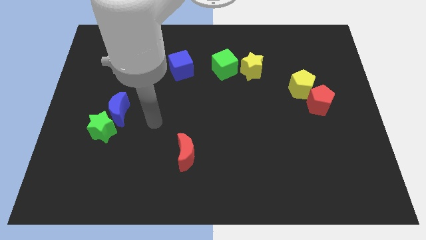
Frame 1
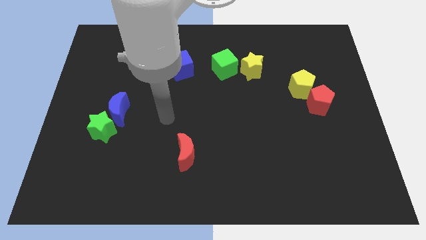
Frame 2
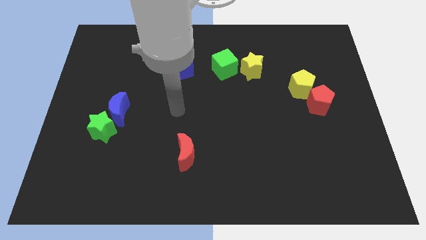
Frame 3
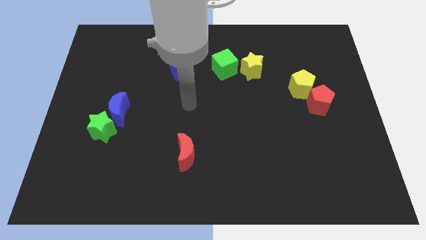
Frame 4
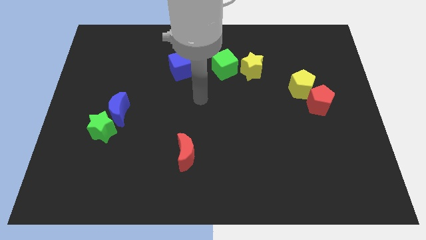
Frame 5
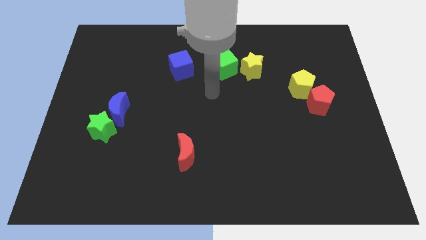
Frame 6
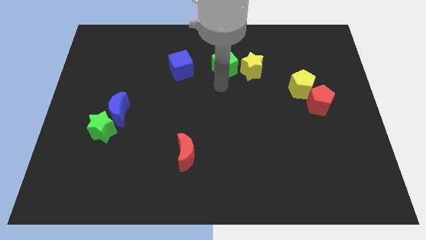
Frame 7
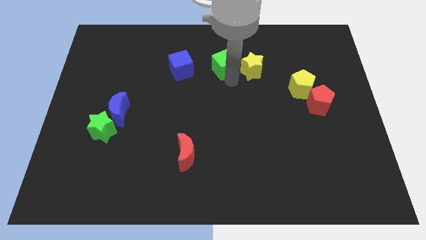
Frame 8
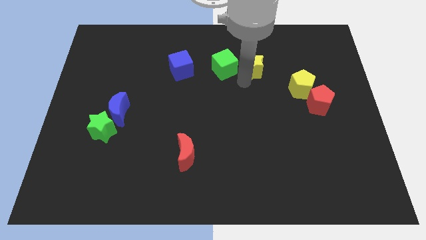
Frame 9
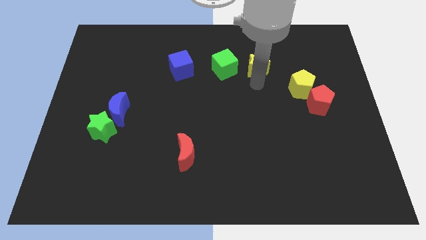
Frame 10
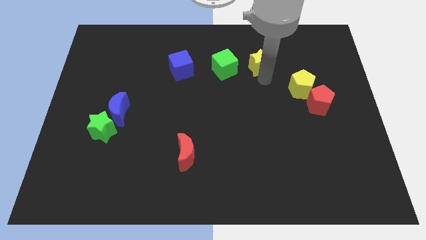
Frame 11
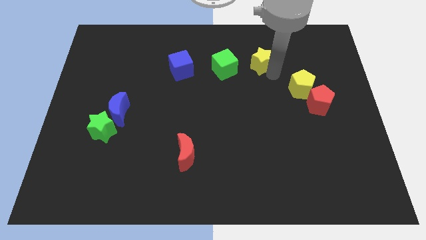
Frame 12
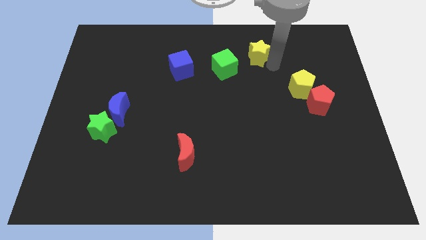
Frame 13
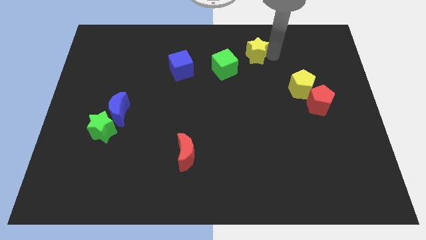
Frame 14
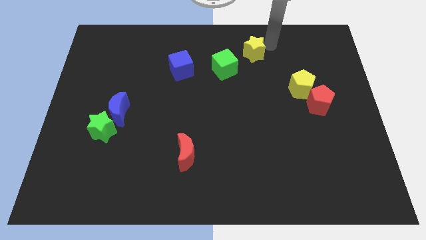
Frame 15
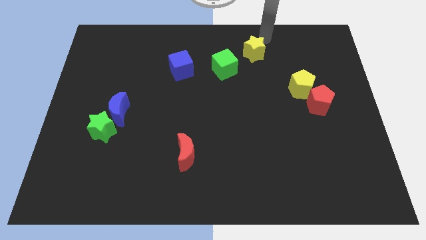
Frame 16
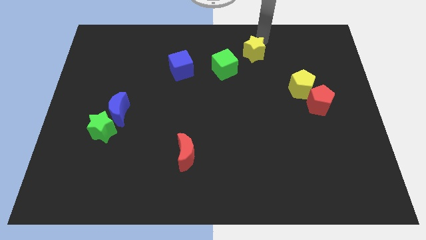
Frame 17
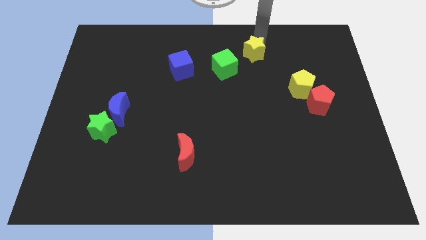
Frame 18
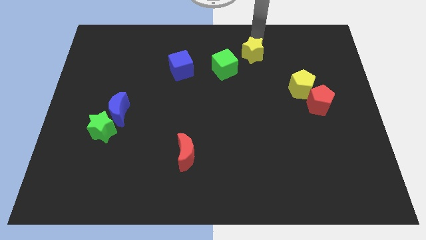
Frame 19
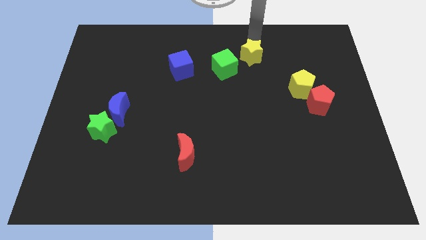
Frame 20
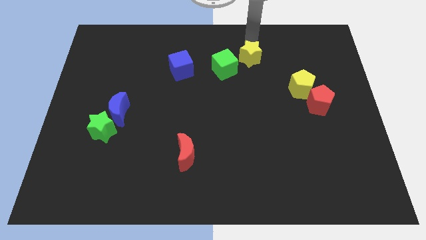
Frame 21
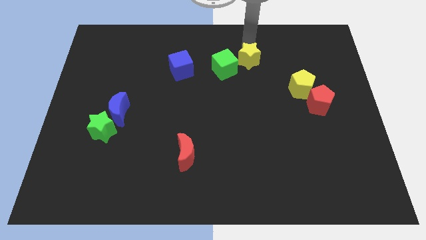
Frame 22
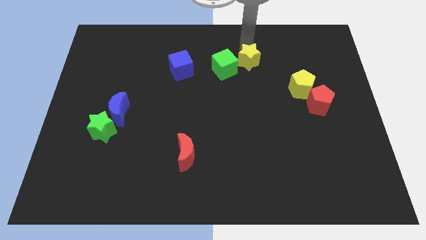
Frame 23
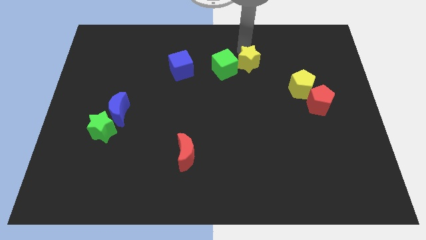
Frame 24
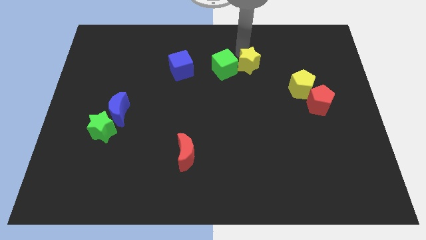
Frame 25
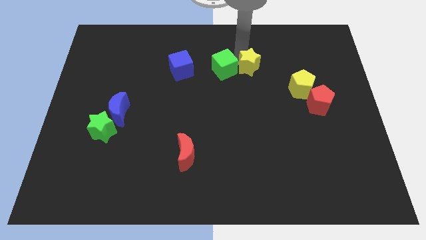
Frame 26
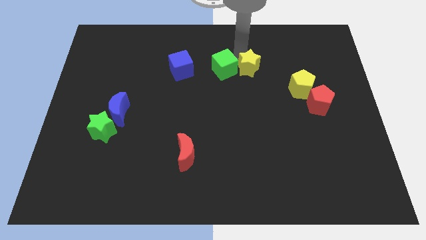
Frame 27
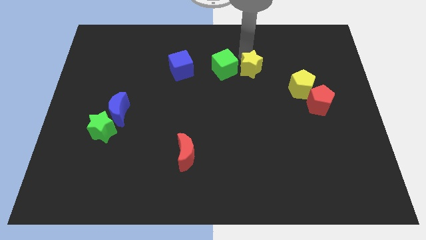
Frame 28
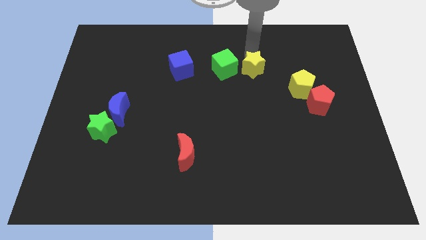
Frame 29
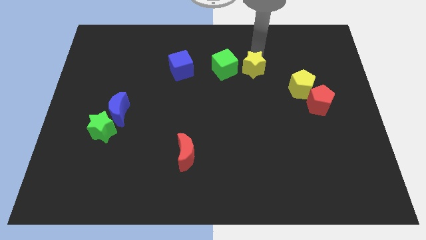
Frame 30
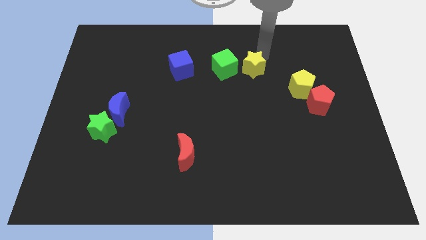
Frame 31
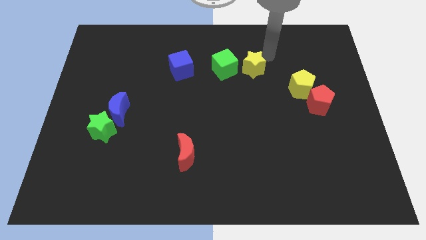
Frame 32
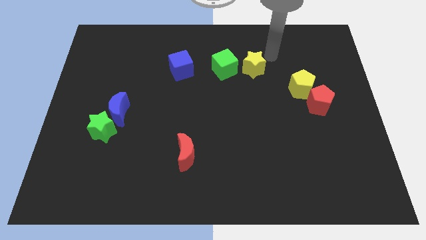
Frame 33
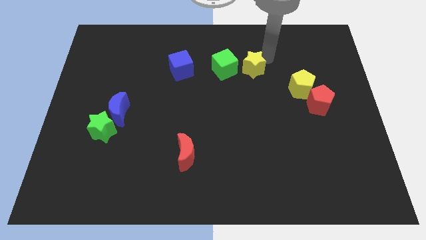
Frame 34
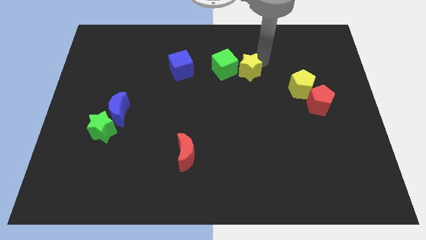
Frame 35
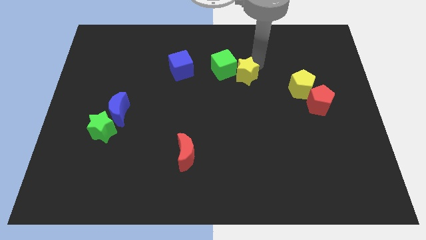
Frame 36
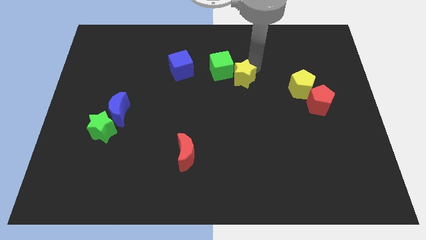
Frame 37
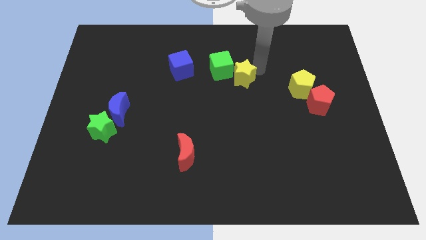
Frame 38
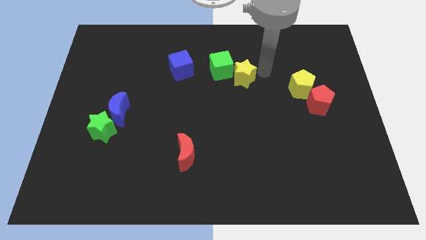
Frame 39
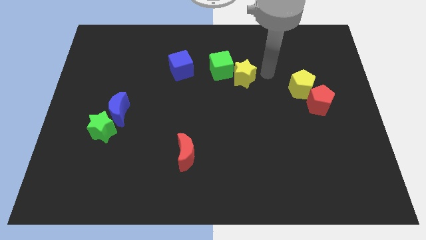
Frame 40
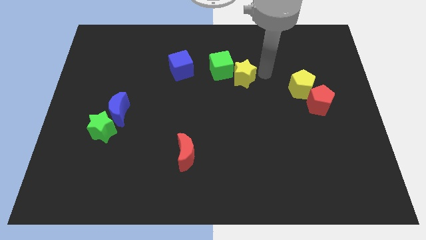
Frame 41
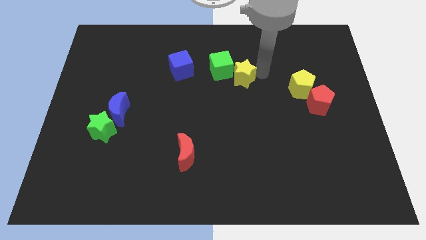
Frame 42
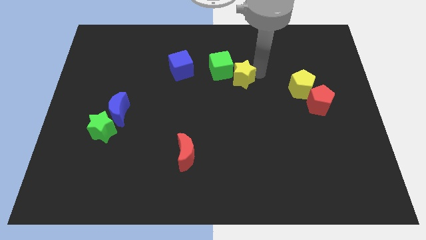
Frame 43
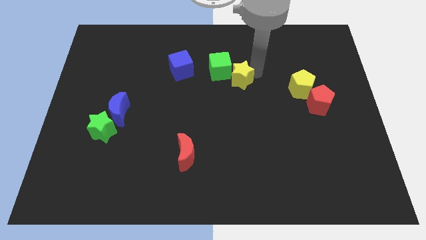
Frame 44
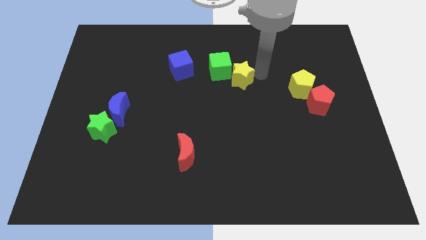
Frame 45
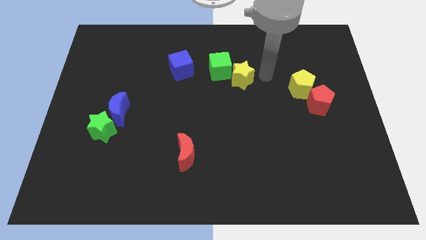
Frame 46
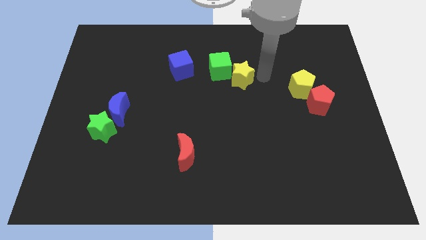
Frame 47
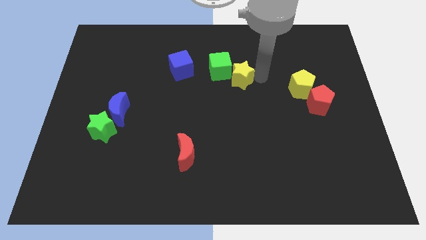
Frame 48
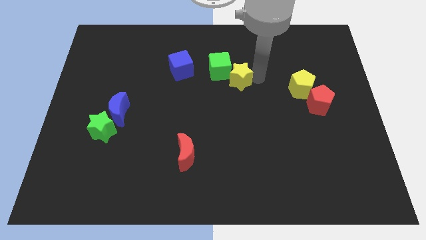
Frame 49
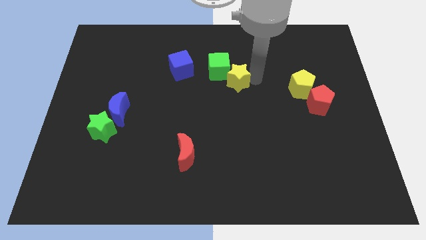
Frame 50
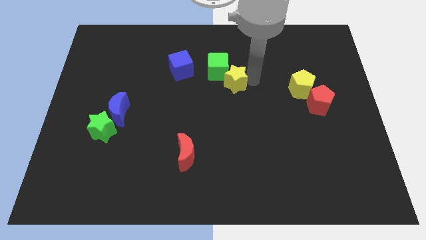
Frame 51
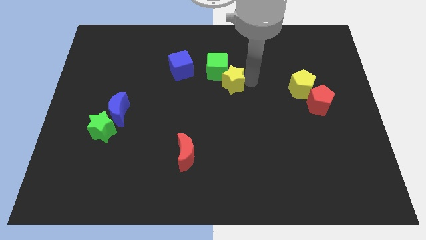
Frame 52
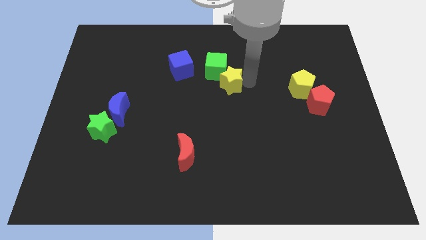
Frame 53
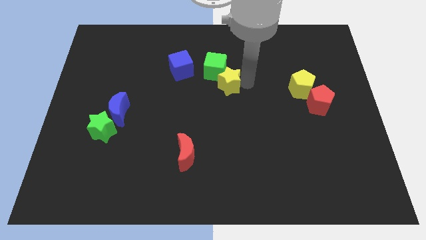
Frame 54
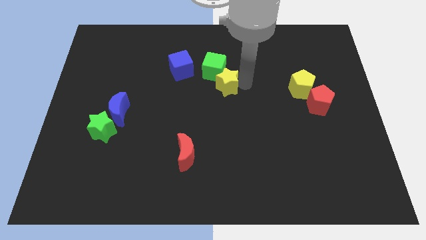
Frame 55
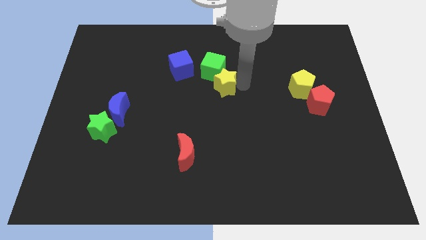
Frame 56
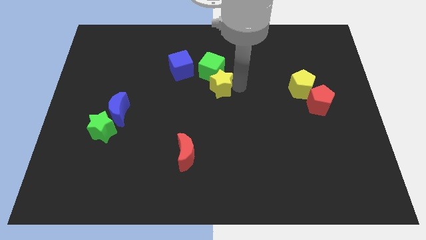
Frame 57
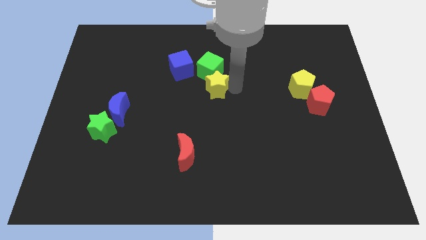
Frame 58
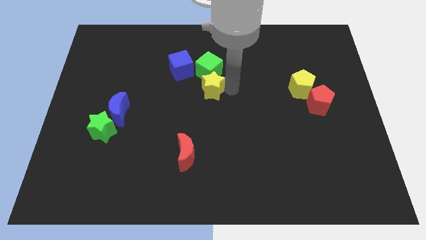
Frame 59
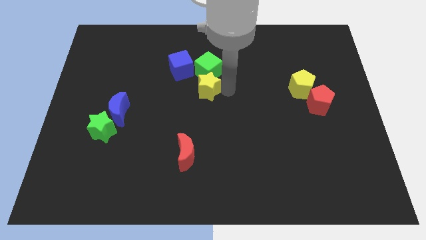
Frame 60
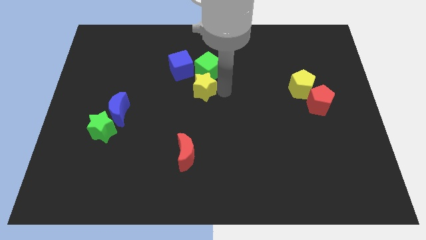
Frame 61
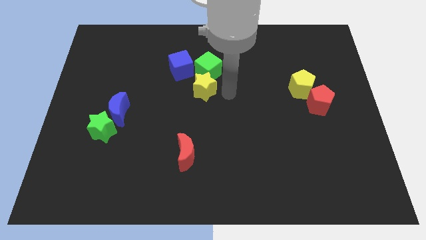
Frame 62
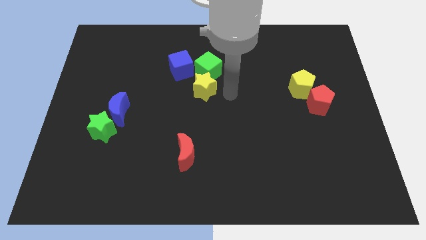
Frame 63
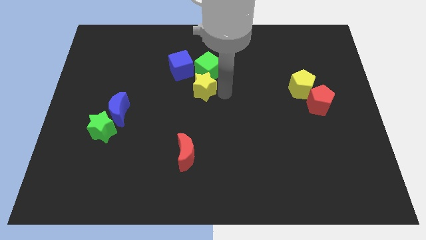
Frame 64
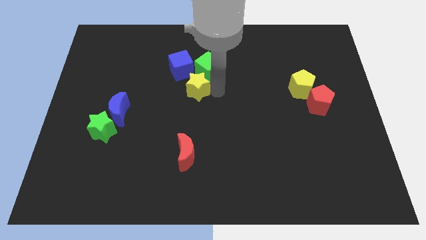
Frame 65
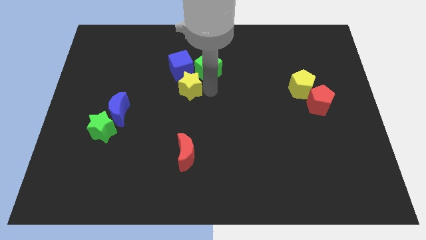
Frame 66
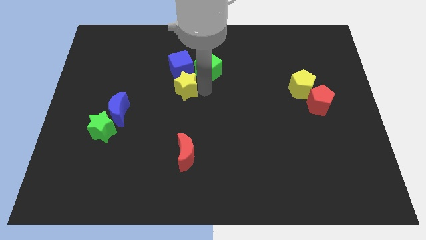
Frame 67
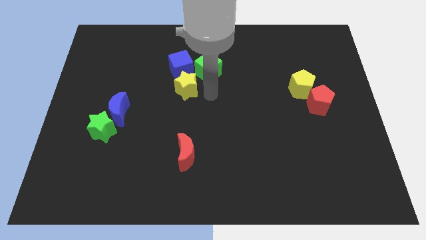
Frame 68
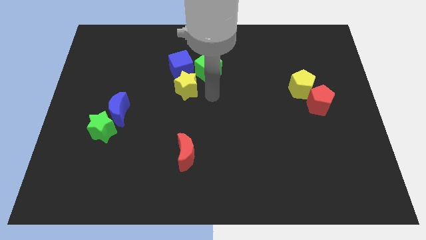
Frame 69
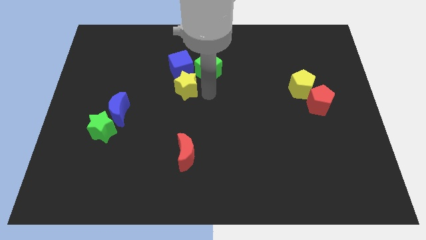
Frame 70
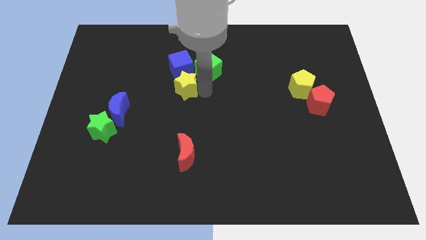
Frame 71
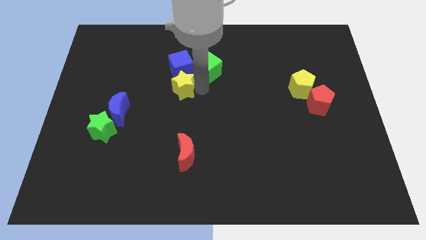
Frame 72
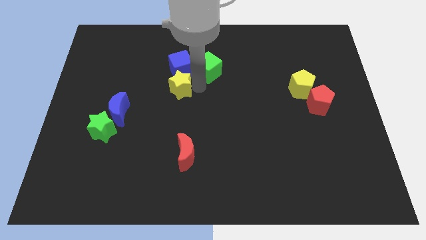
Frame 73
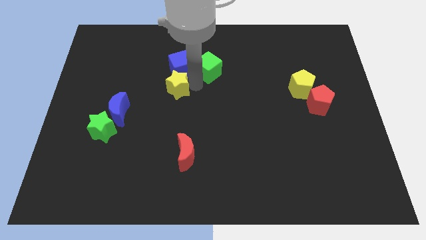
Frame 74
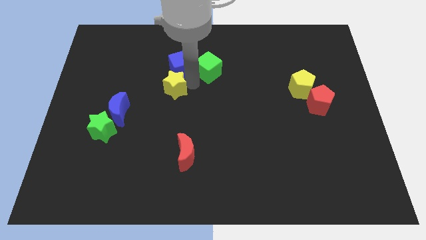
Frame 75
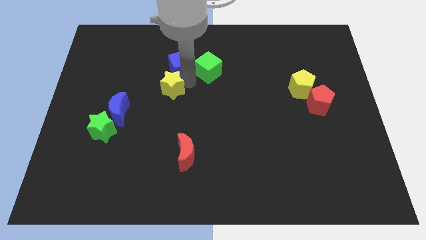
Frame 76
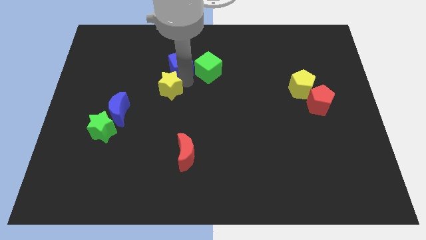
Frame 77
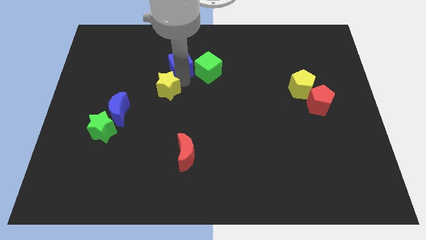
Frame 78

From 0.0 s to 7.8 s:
move the yellow star left
